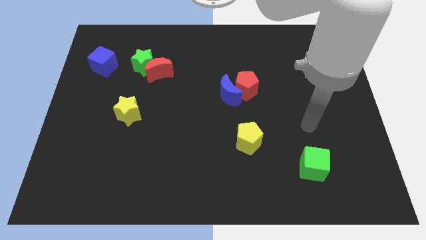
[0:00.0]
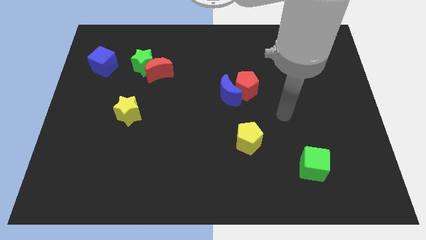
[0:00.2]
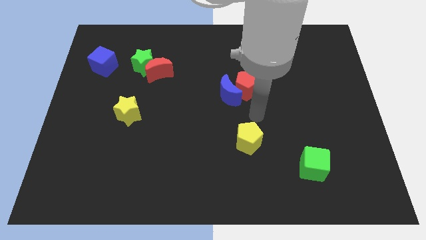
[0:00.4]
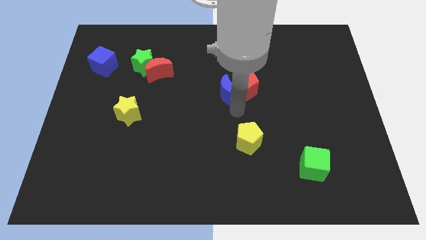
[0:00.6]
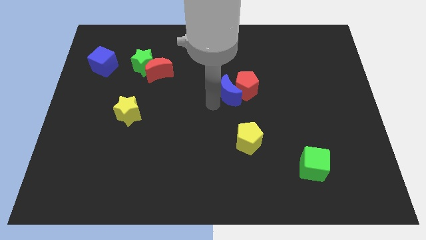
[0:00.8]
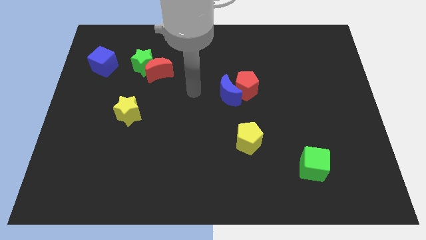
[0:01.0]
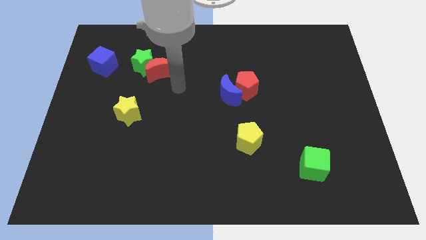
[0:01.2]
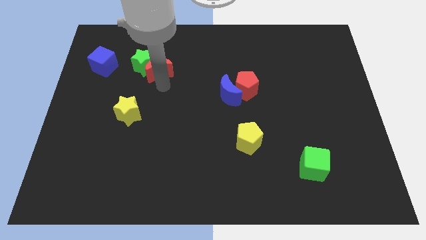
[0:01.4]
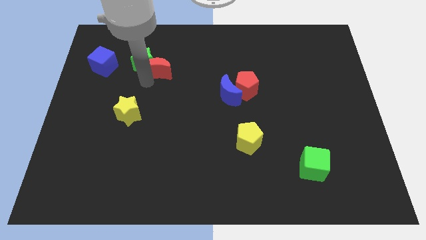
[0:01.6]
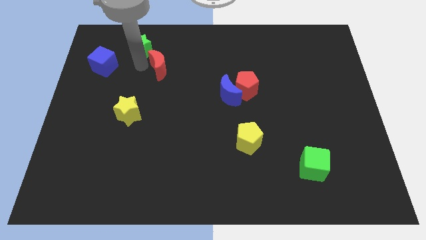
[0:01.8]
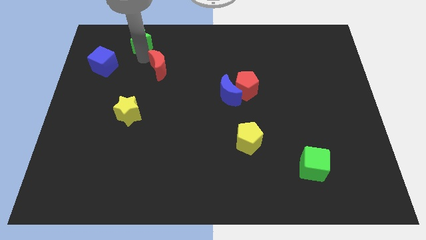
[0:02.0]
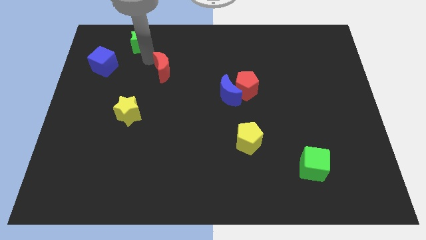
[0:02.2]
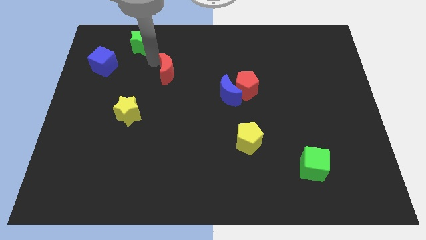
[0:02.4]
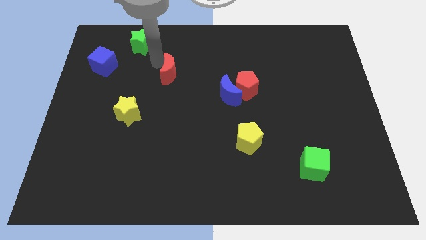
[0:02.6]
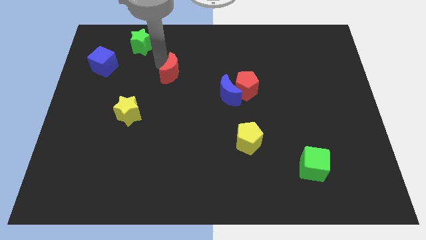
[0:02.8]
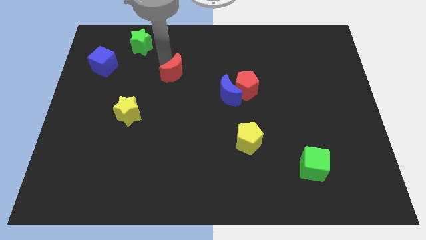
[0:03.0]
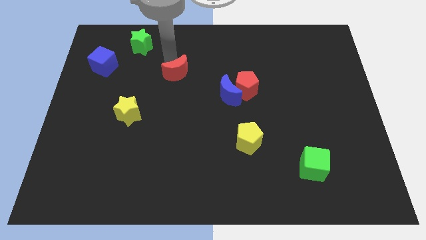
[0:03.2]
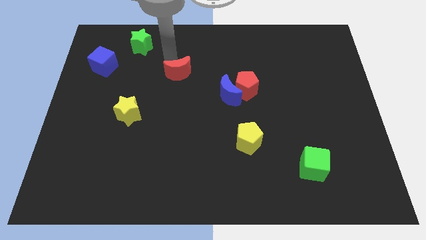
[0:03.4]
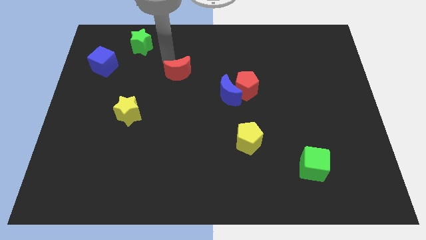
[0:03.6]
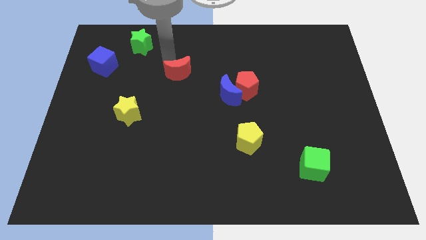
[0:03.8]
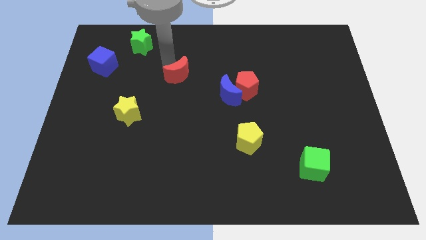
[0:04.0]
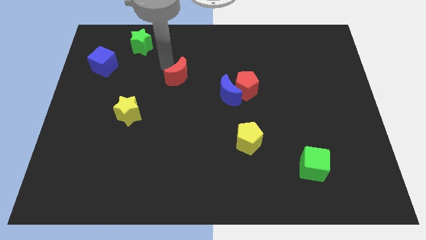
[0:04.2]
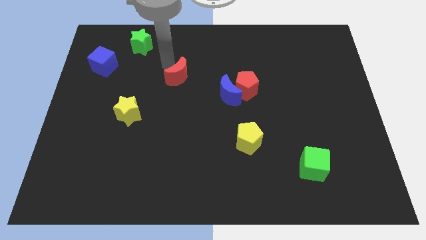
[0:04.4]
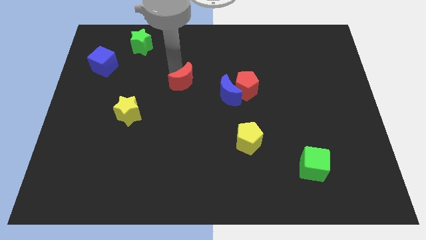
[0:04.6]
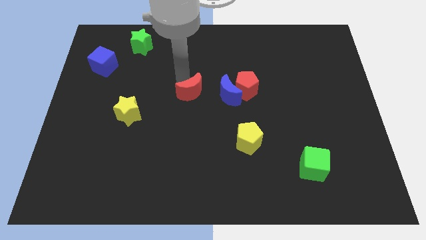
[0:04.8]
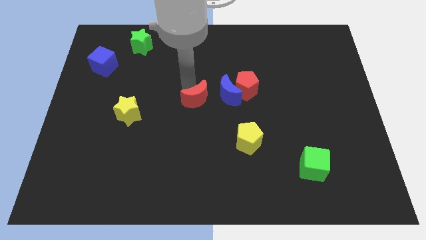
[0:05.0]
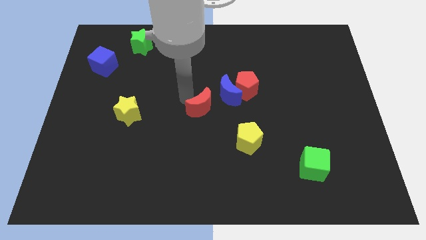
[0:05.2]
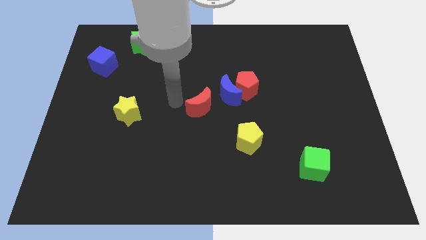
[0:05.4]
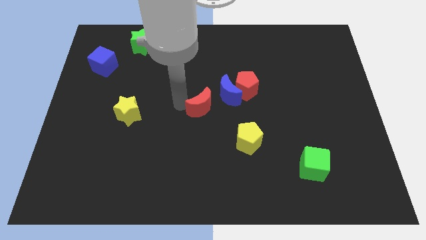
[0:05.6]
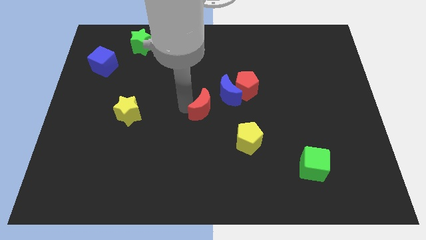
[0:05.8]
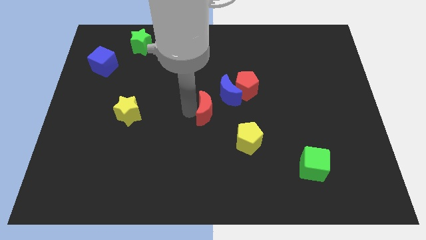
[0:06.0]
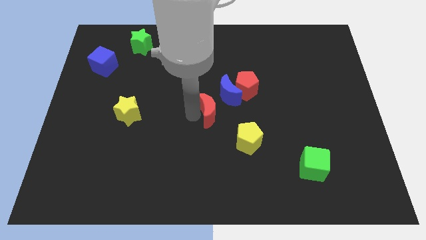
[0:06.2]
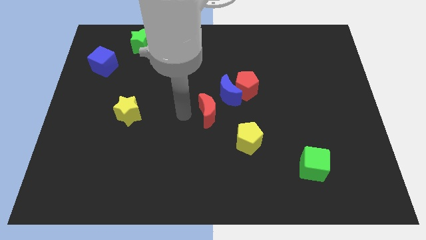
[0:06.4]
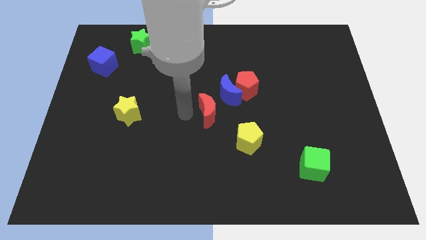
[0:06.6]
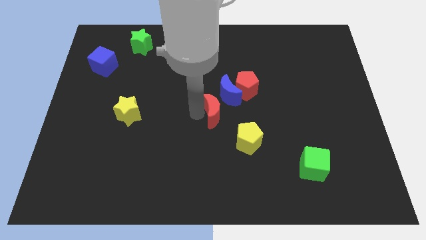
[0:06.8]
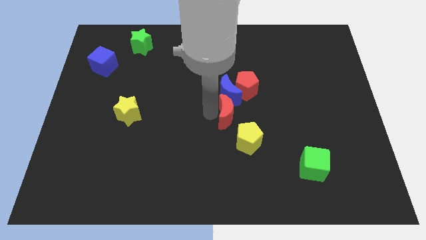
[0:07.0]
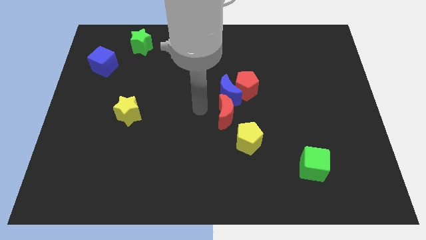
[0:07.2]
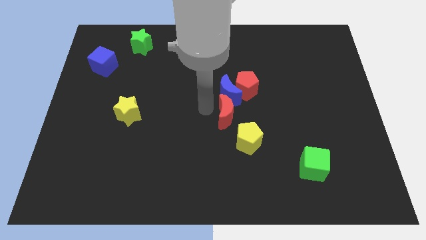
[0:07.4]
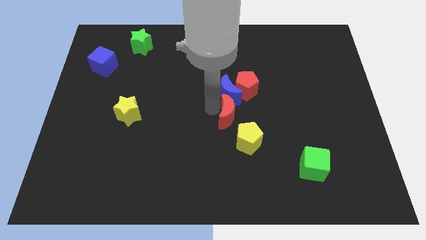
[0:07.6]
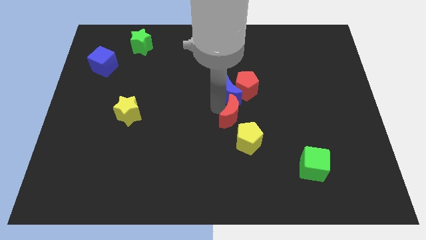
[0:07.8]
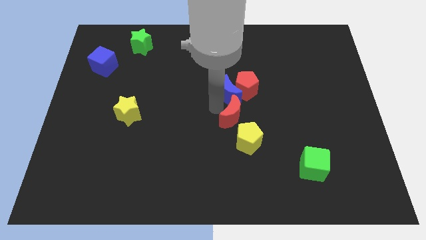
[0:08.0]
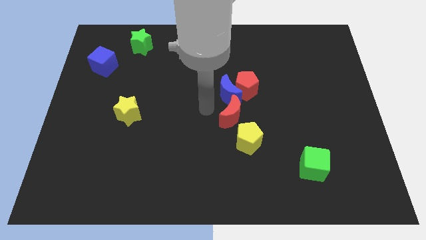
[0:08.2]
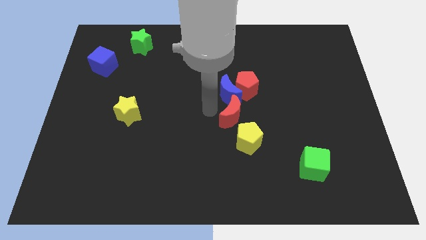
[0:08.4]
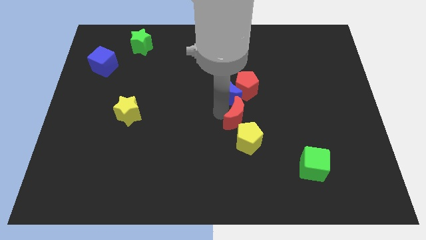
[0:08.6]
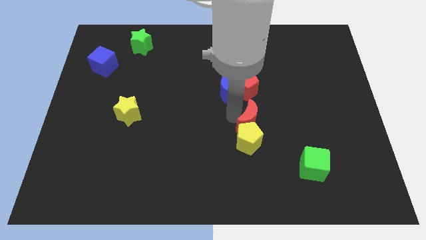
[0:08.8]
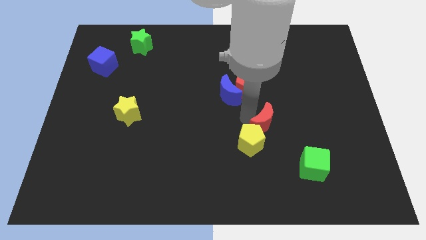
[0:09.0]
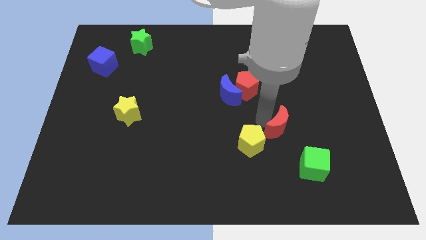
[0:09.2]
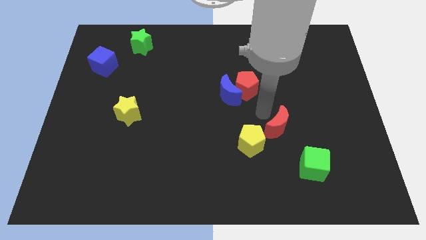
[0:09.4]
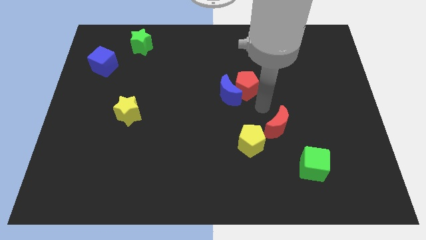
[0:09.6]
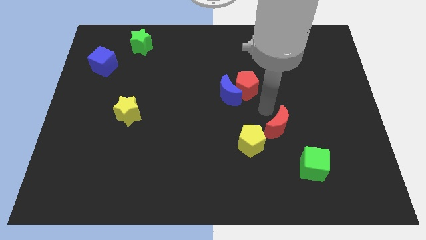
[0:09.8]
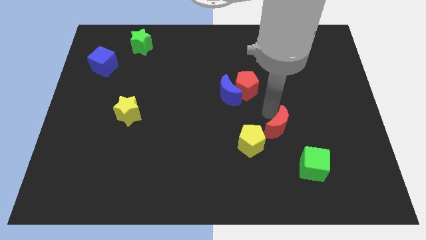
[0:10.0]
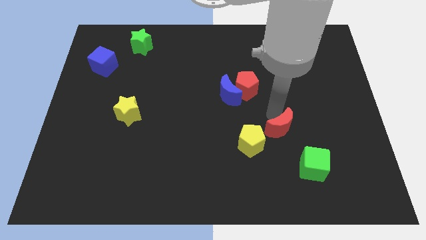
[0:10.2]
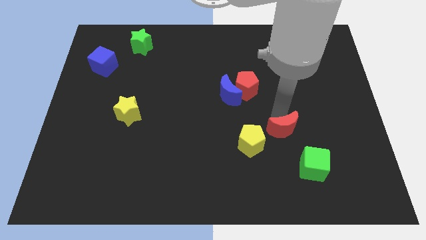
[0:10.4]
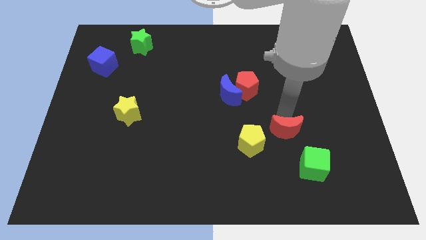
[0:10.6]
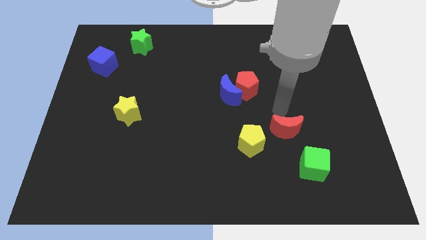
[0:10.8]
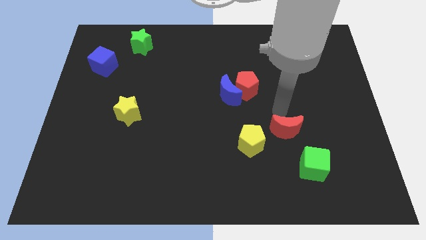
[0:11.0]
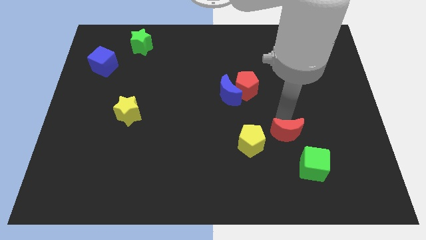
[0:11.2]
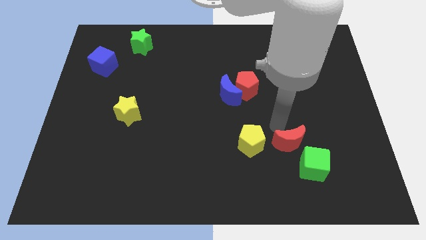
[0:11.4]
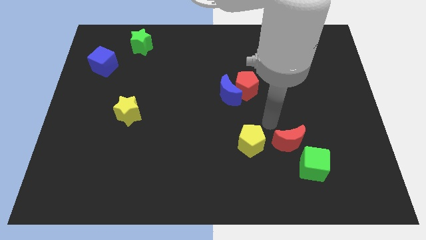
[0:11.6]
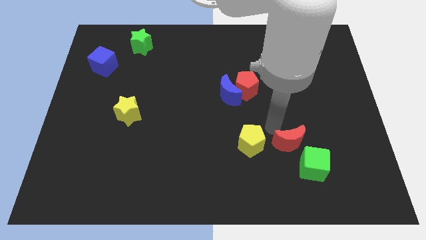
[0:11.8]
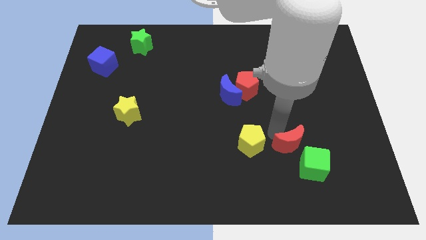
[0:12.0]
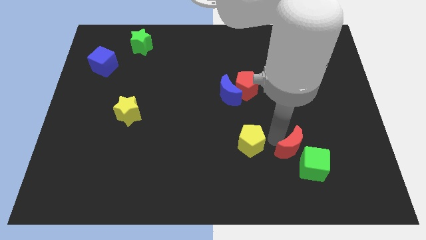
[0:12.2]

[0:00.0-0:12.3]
push the red moon towards the green cube

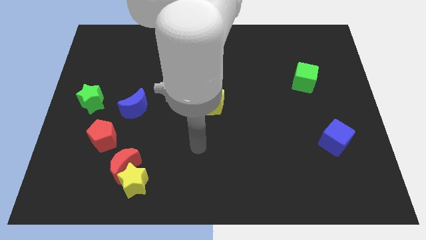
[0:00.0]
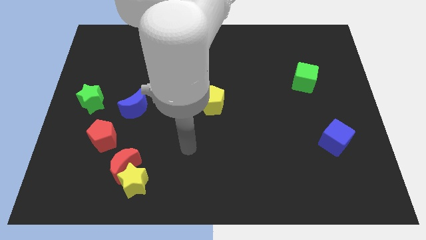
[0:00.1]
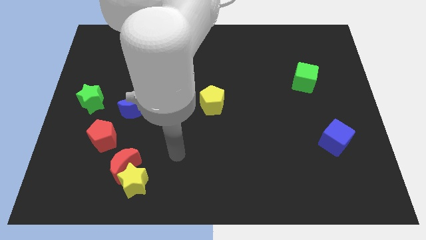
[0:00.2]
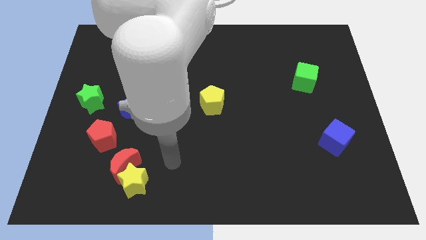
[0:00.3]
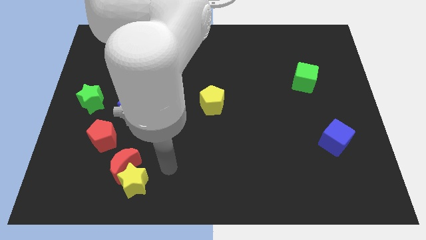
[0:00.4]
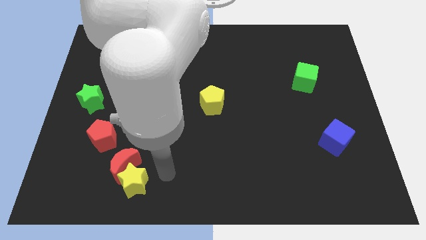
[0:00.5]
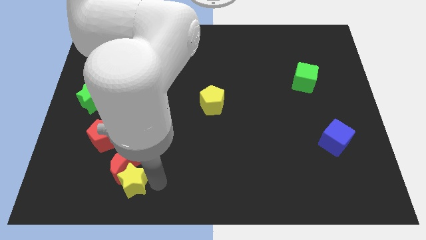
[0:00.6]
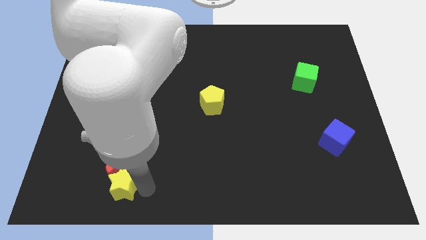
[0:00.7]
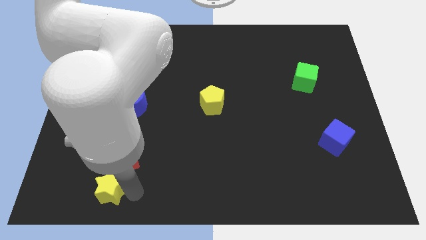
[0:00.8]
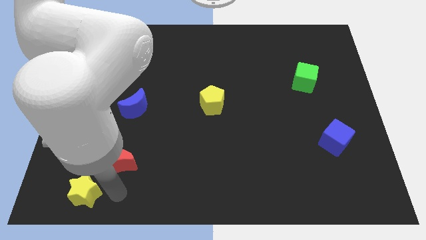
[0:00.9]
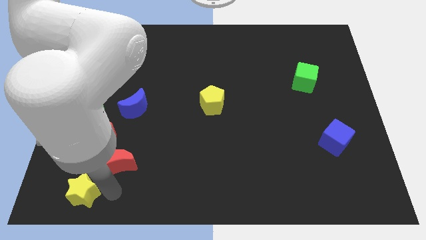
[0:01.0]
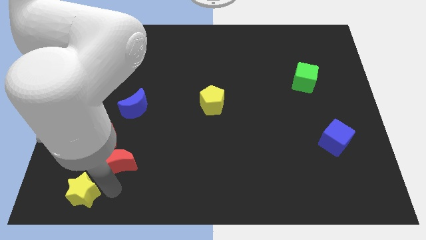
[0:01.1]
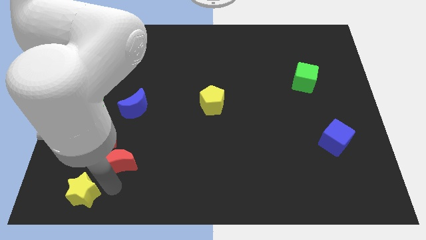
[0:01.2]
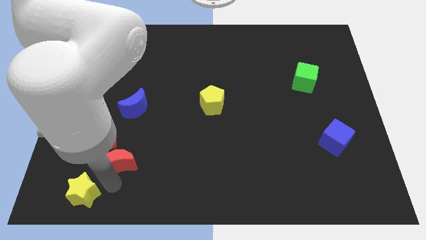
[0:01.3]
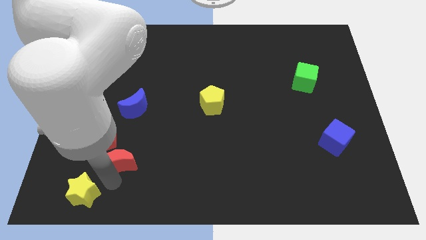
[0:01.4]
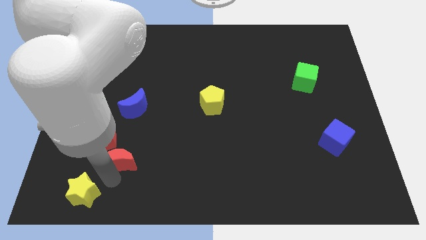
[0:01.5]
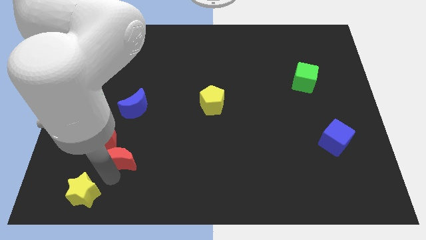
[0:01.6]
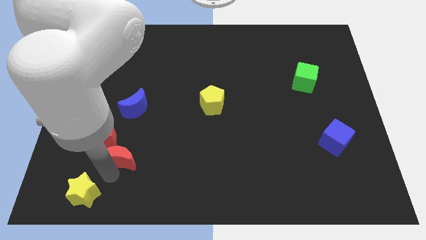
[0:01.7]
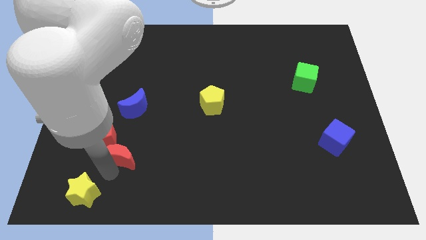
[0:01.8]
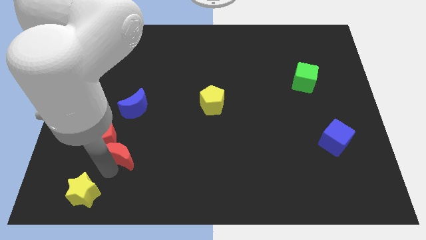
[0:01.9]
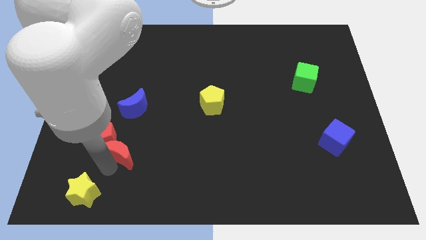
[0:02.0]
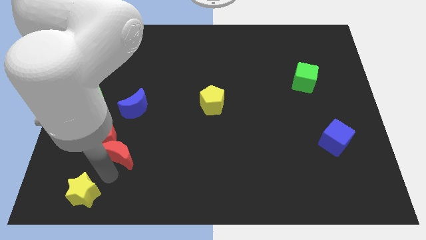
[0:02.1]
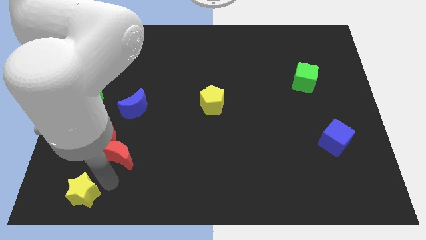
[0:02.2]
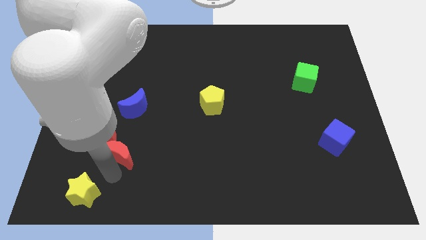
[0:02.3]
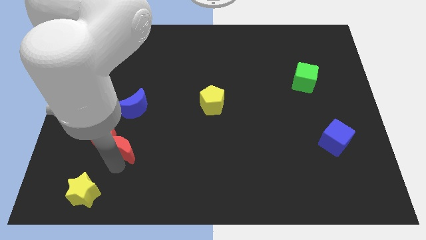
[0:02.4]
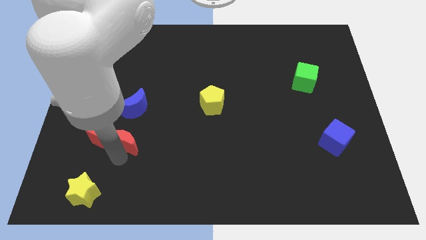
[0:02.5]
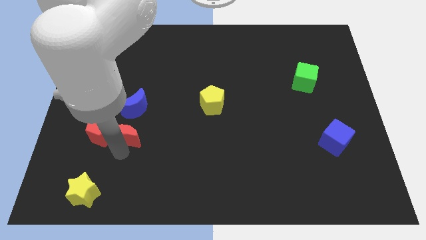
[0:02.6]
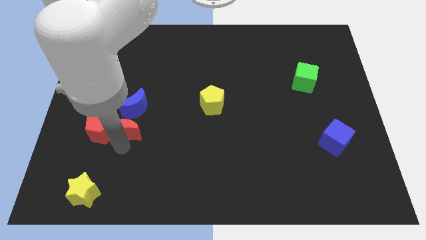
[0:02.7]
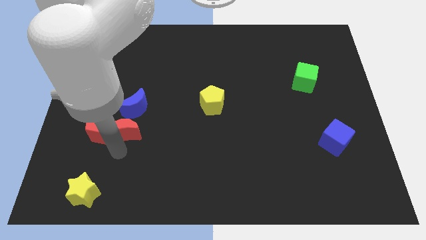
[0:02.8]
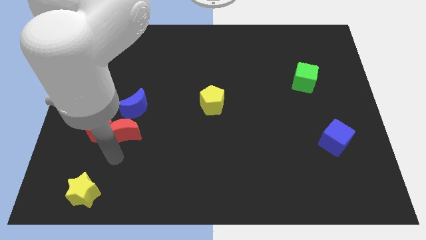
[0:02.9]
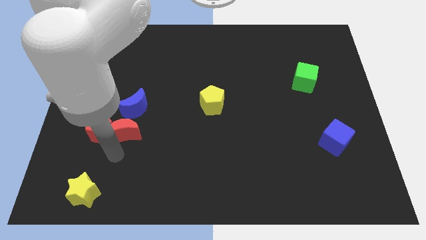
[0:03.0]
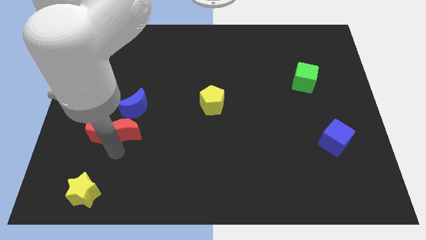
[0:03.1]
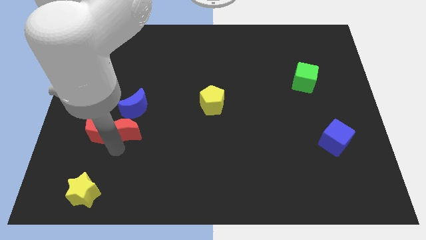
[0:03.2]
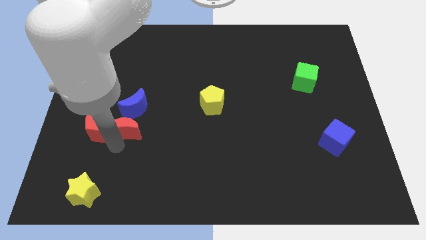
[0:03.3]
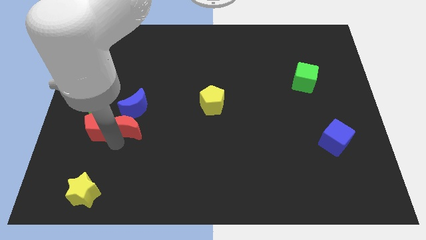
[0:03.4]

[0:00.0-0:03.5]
push the red moon towards the blue moon
